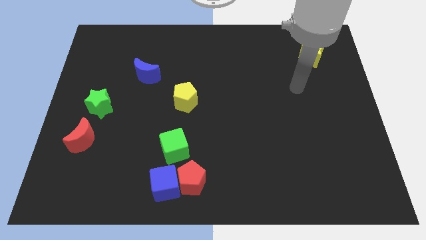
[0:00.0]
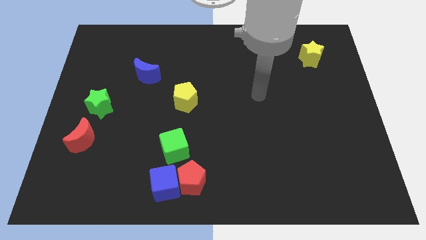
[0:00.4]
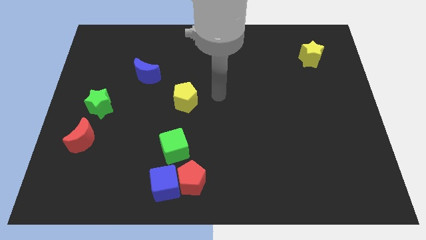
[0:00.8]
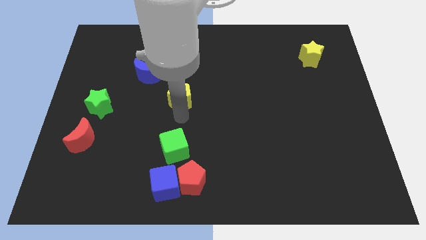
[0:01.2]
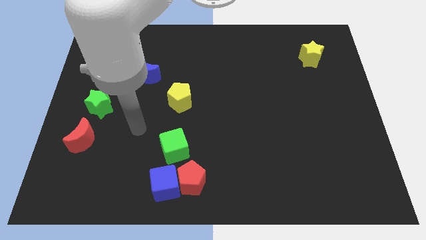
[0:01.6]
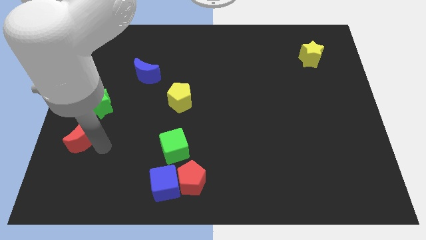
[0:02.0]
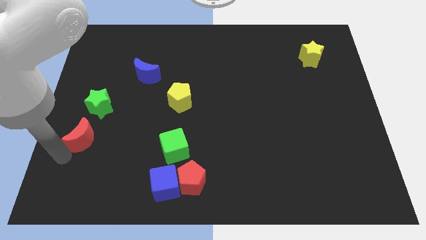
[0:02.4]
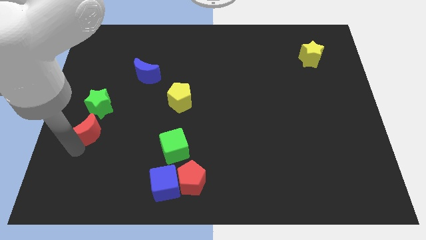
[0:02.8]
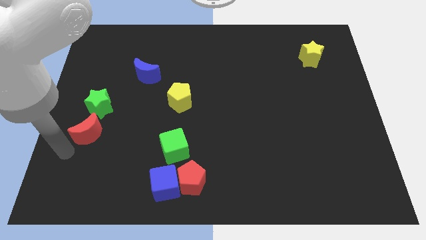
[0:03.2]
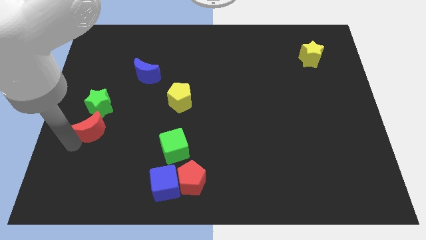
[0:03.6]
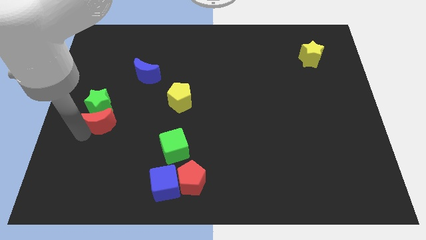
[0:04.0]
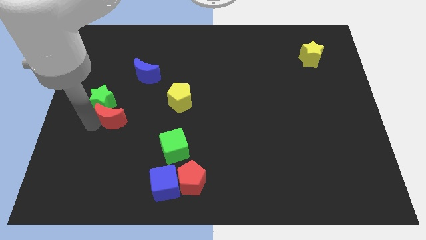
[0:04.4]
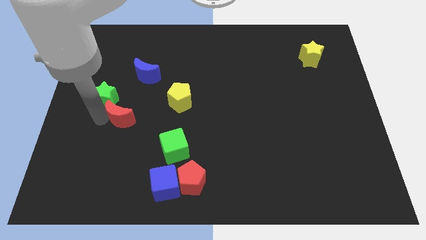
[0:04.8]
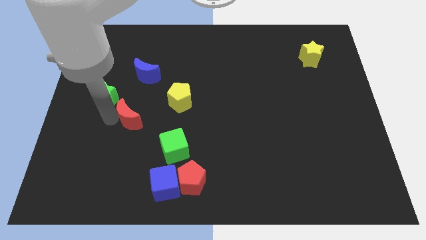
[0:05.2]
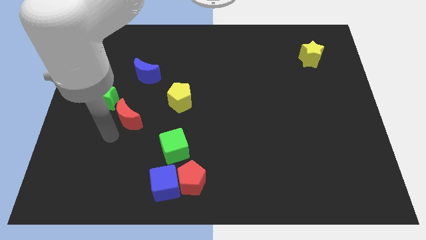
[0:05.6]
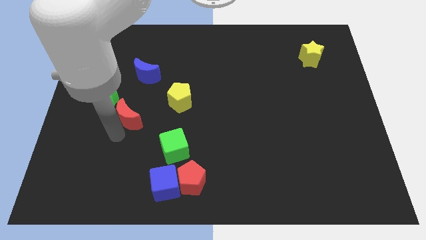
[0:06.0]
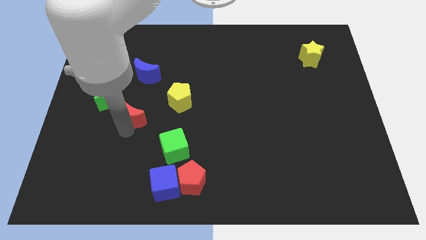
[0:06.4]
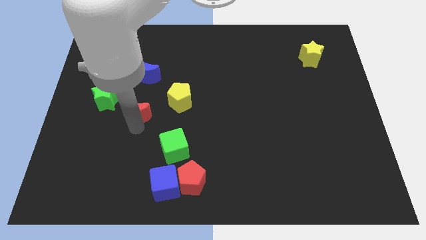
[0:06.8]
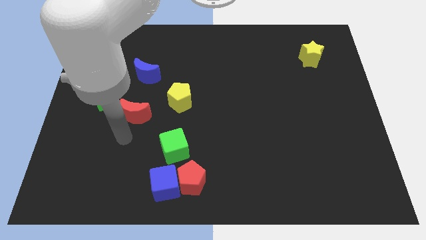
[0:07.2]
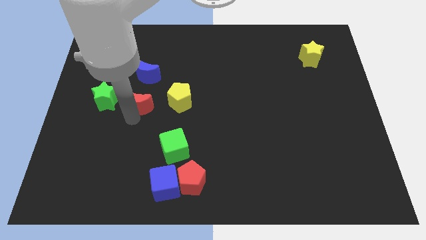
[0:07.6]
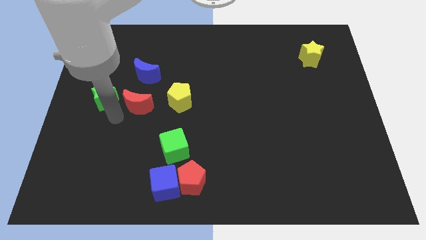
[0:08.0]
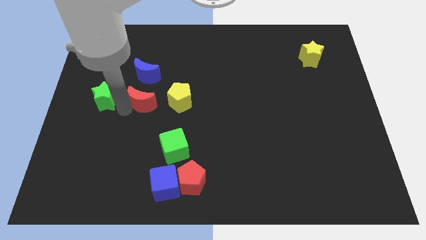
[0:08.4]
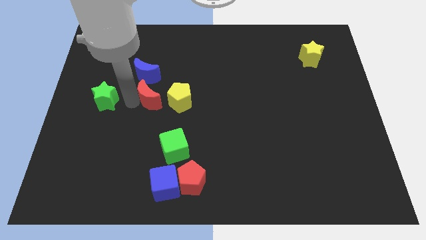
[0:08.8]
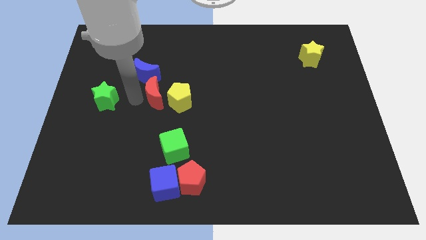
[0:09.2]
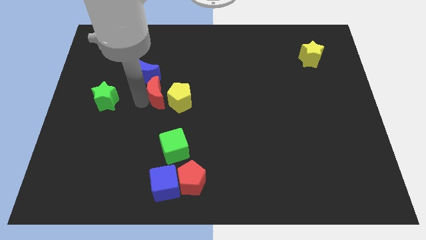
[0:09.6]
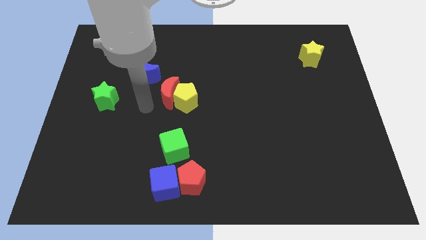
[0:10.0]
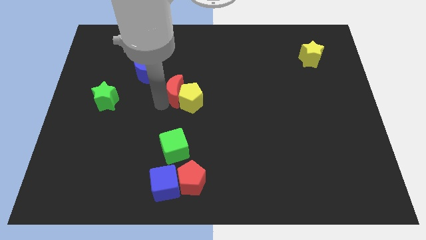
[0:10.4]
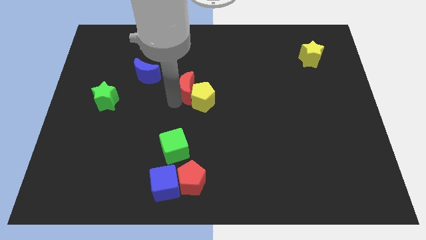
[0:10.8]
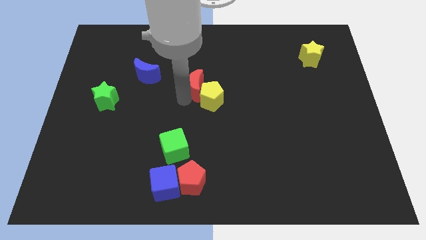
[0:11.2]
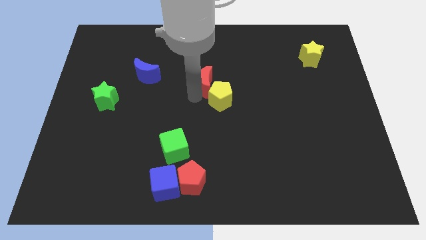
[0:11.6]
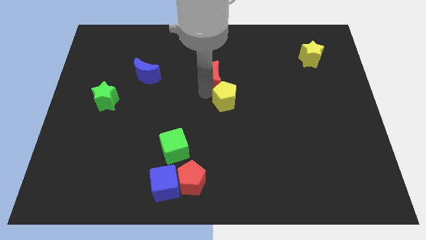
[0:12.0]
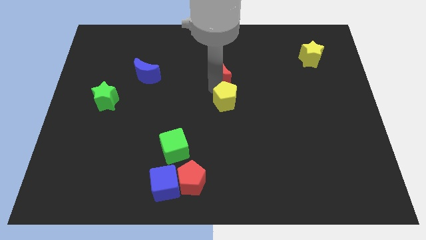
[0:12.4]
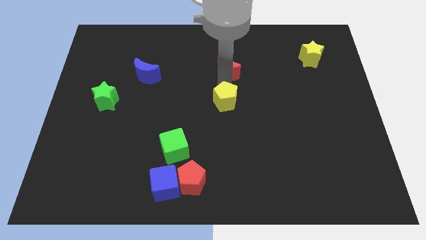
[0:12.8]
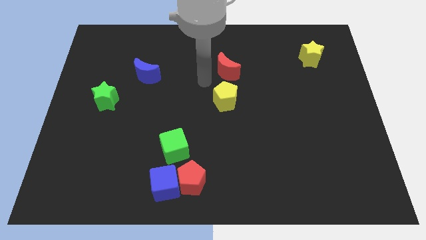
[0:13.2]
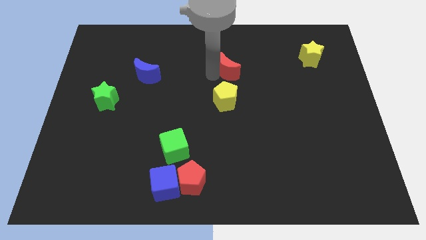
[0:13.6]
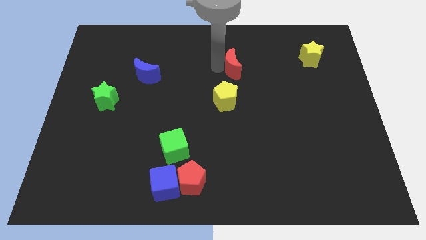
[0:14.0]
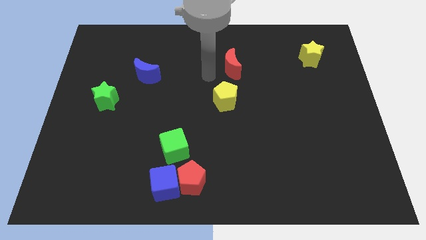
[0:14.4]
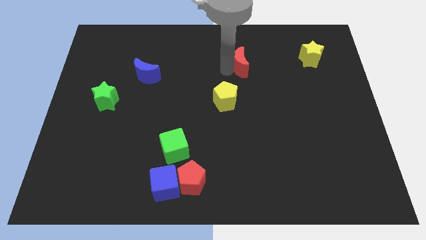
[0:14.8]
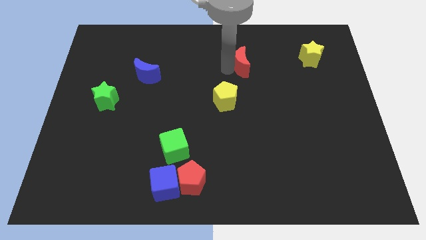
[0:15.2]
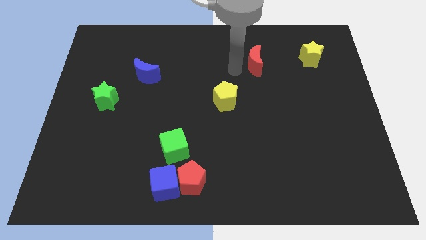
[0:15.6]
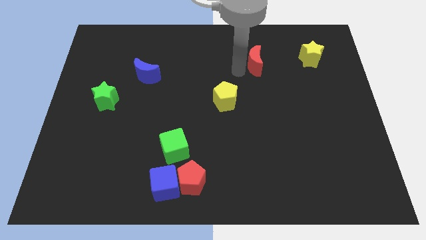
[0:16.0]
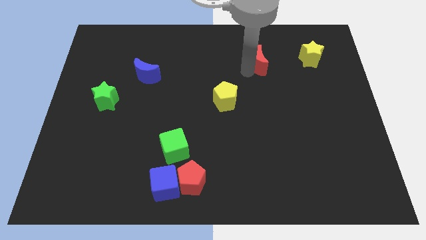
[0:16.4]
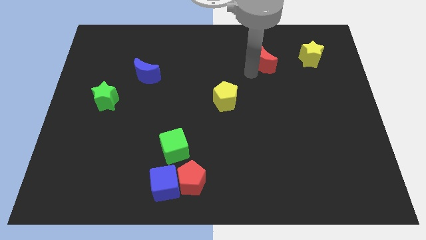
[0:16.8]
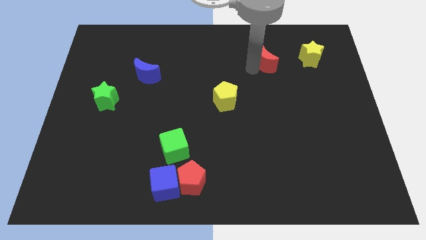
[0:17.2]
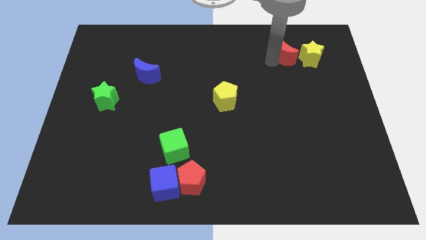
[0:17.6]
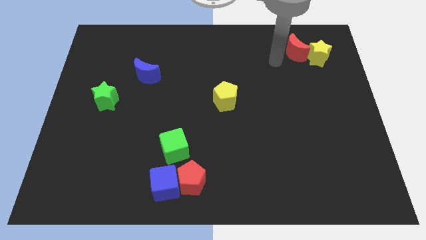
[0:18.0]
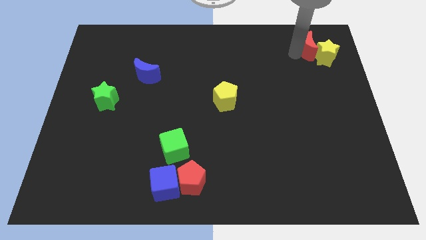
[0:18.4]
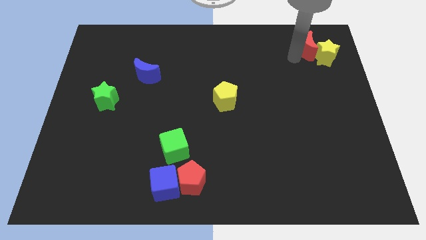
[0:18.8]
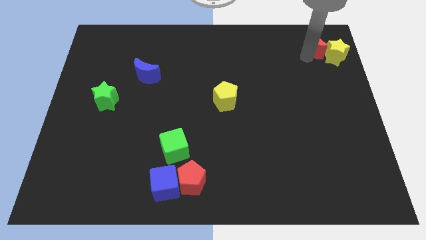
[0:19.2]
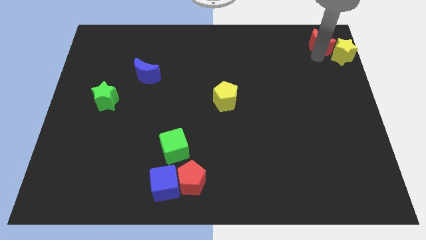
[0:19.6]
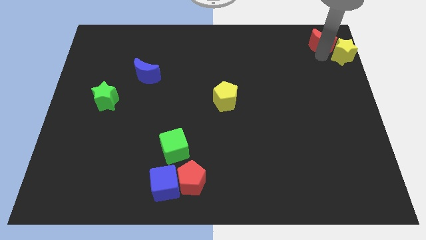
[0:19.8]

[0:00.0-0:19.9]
put the red moon to the top right
